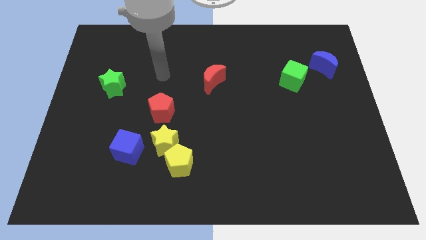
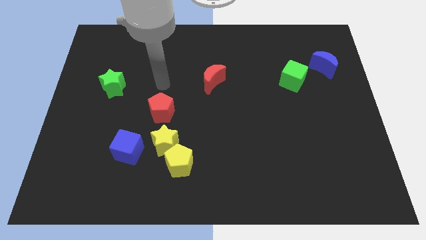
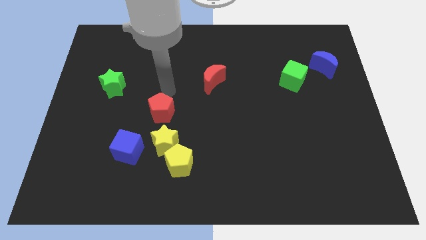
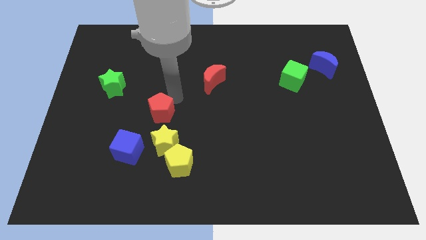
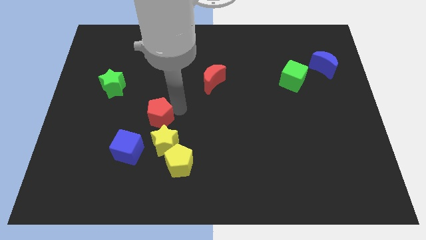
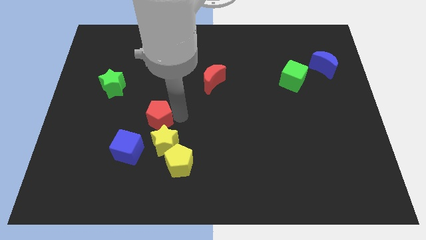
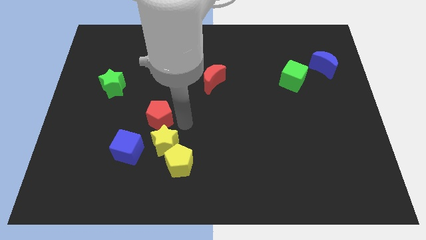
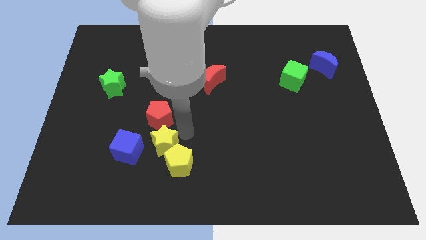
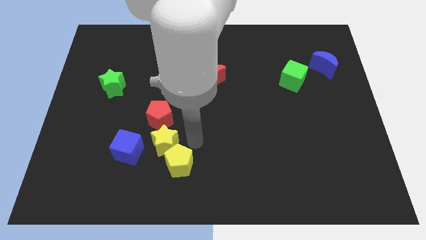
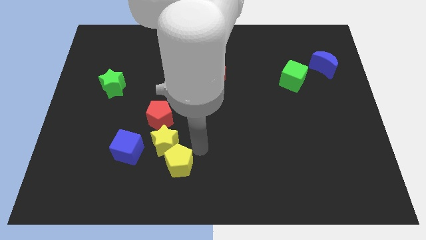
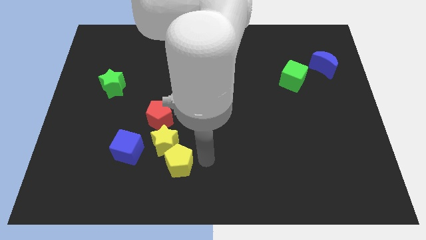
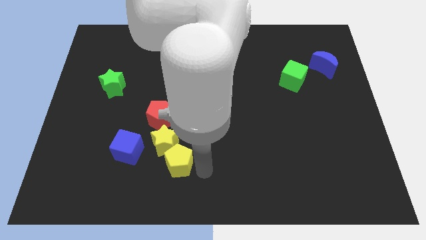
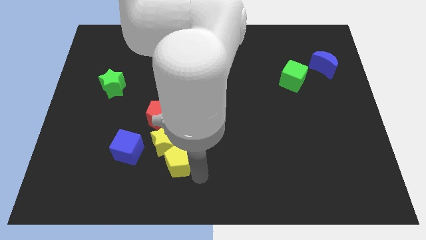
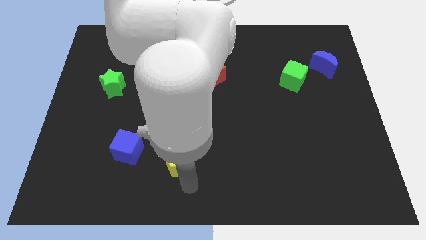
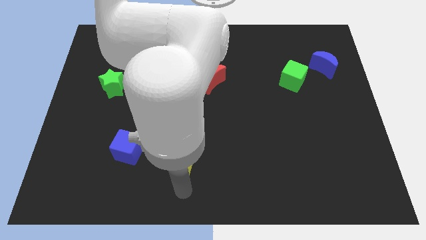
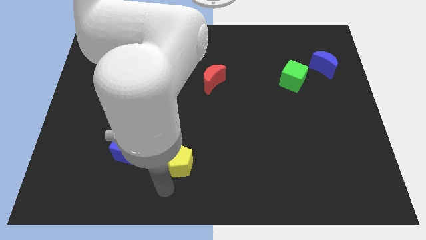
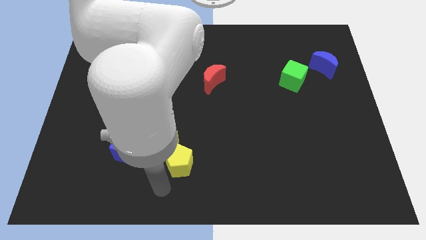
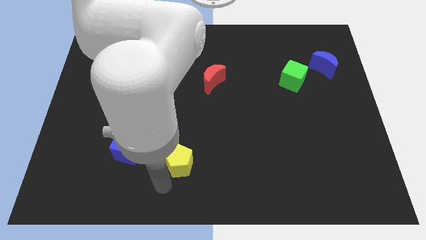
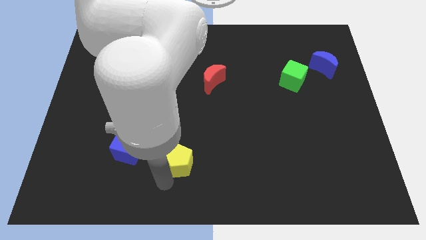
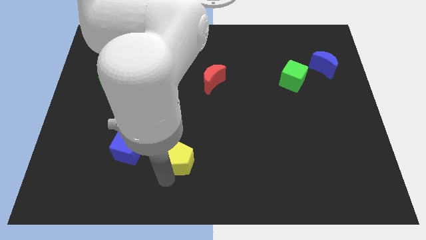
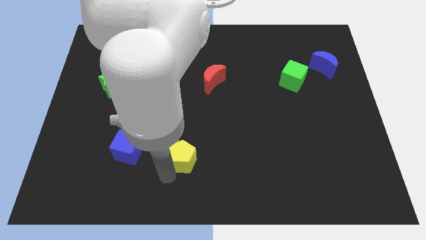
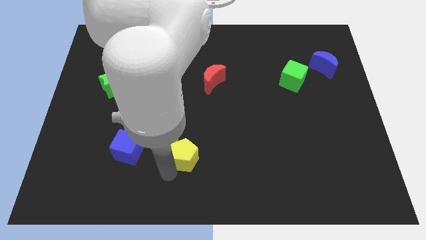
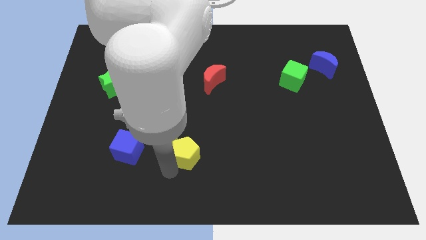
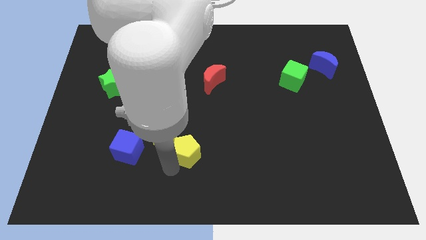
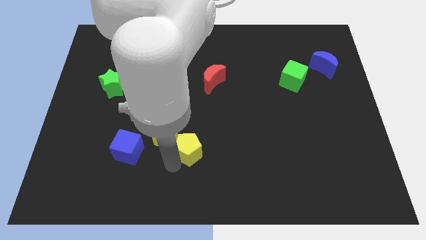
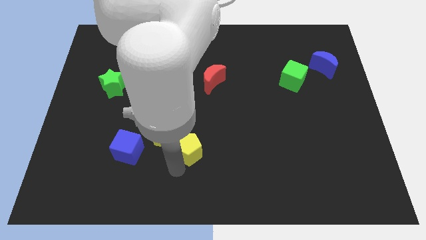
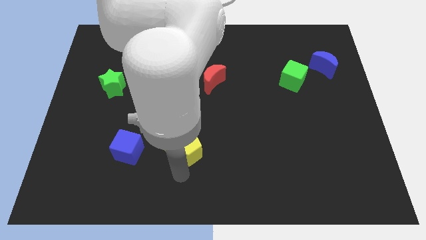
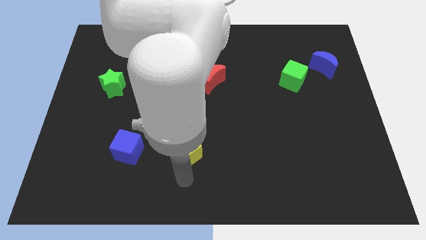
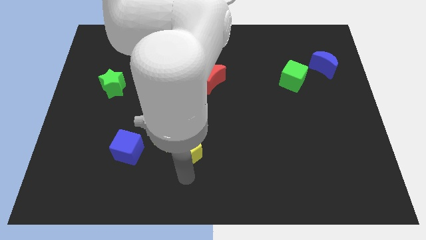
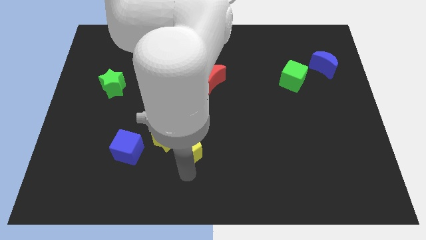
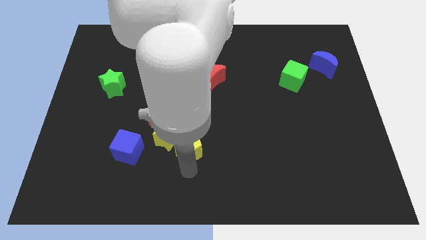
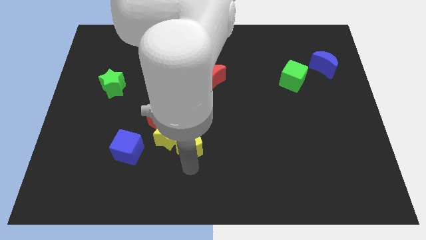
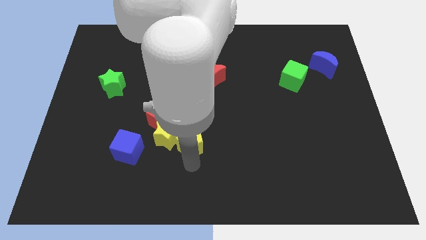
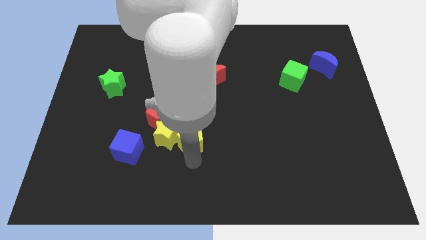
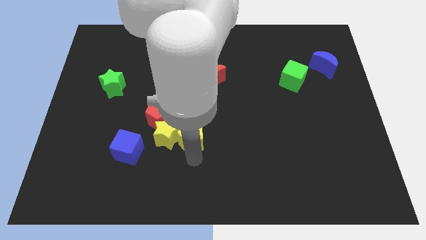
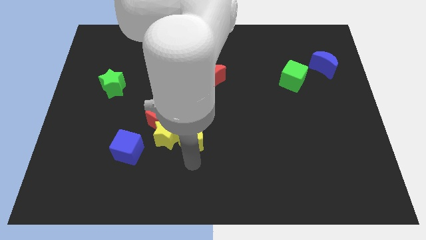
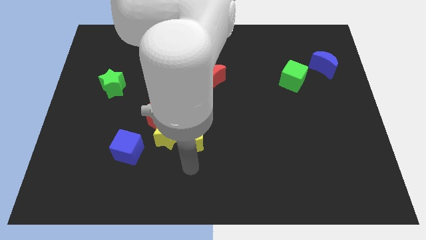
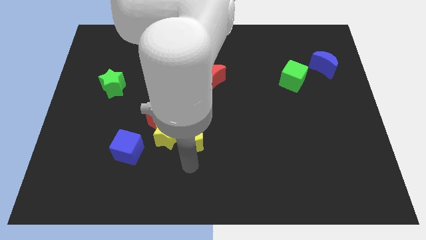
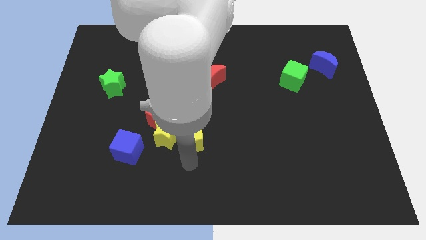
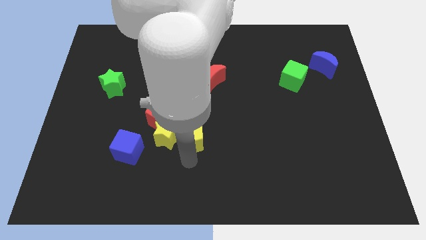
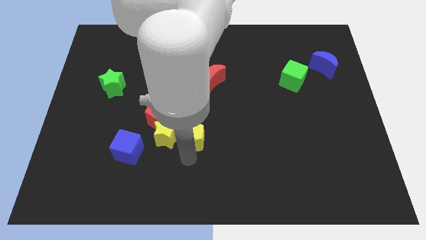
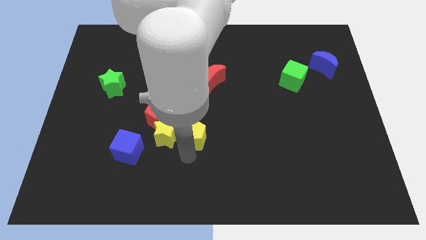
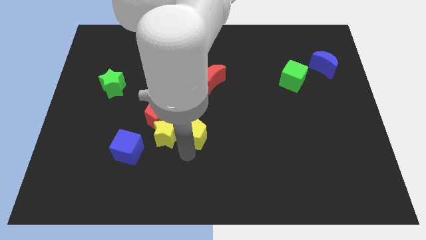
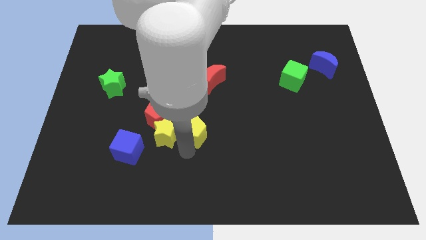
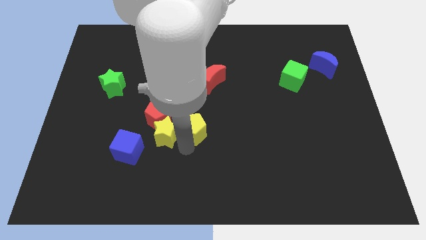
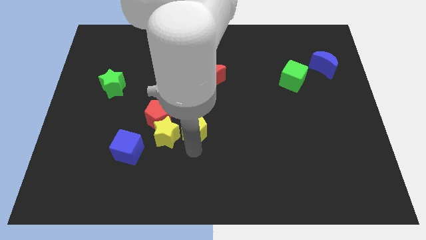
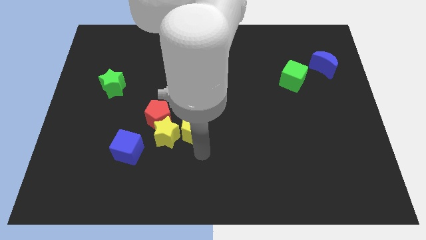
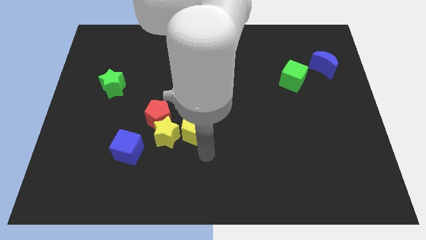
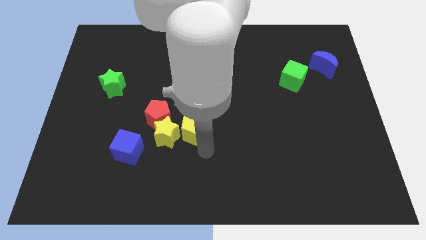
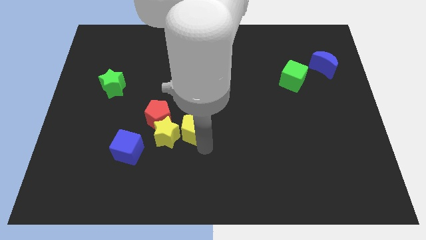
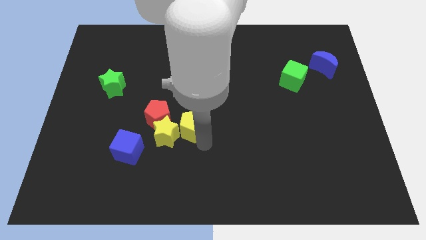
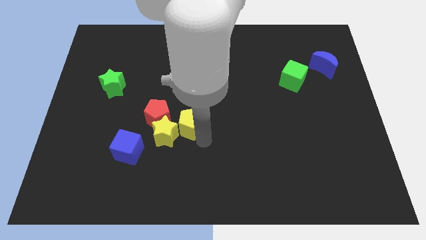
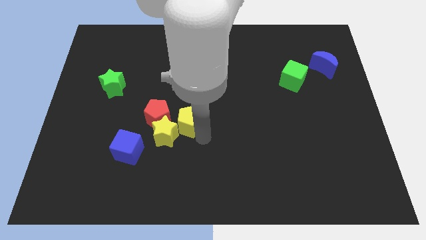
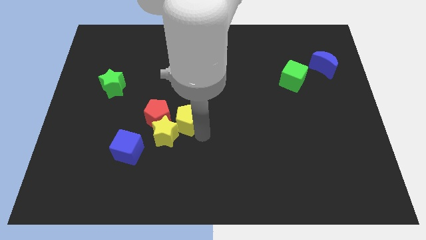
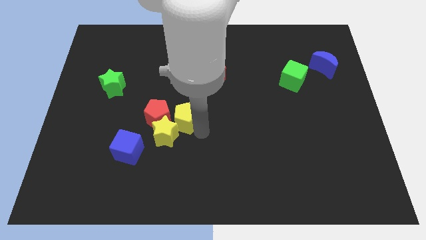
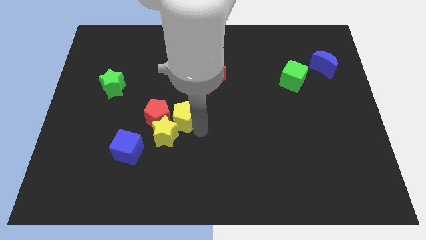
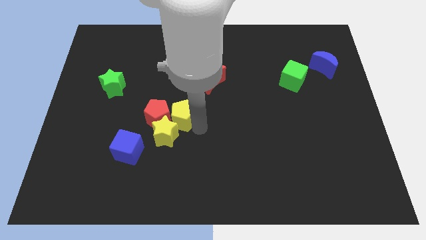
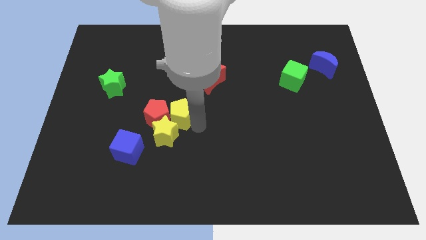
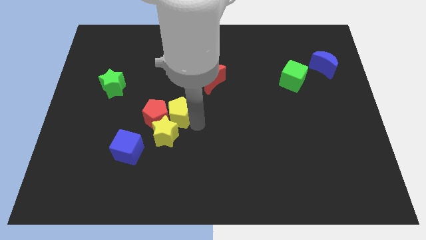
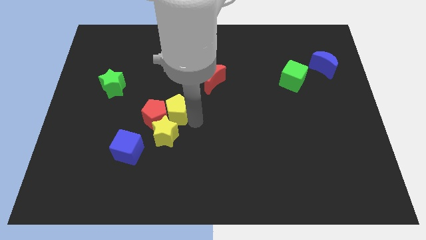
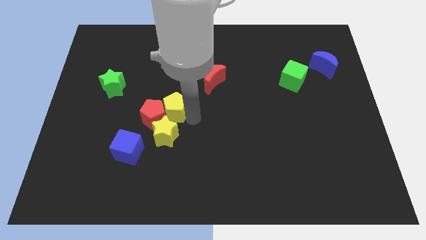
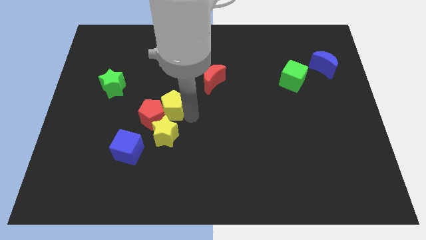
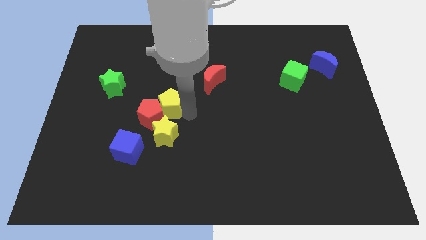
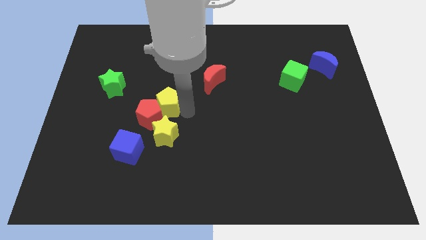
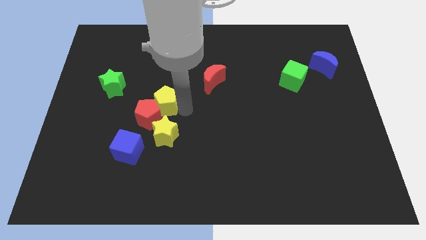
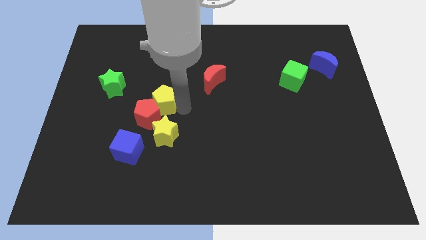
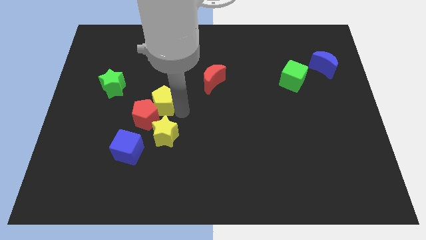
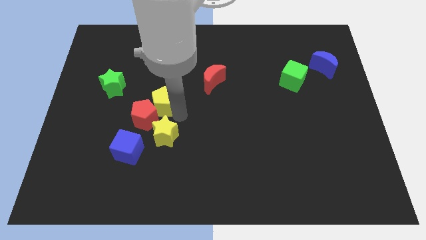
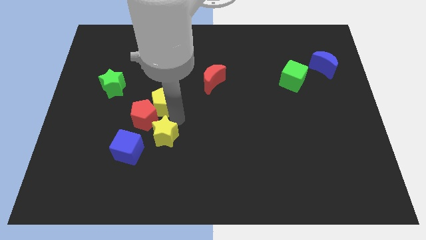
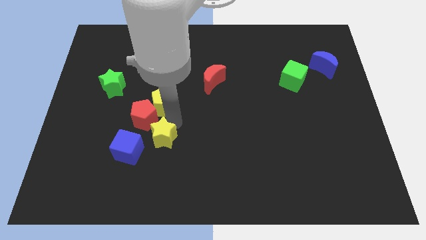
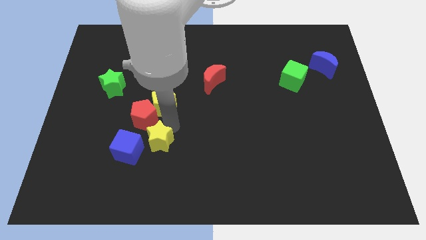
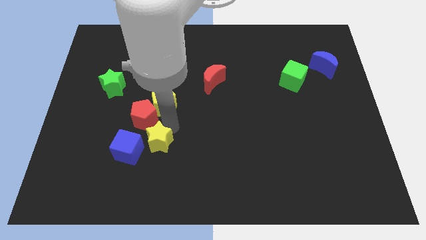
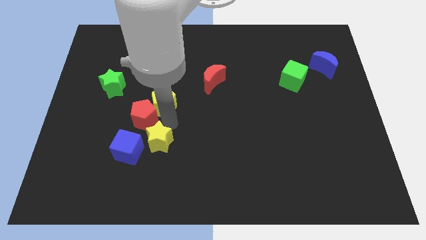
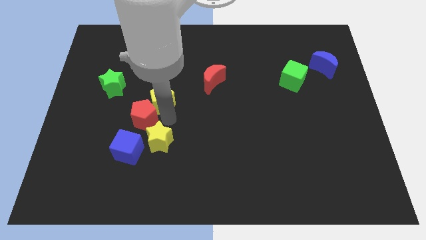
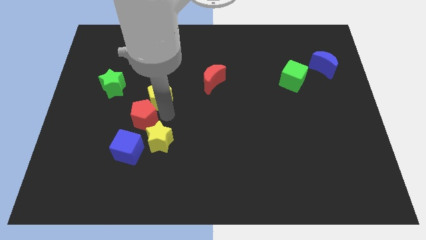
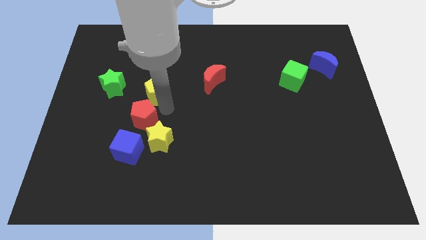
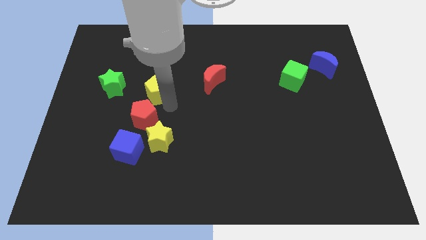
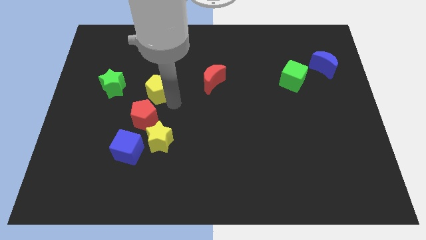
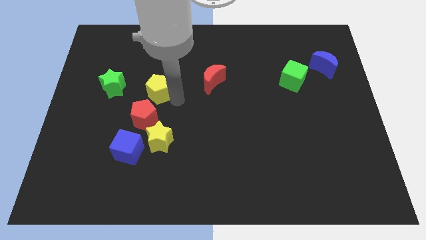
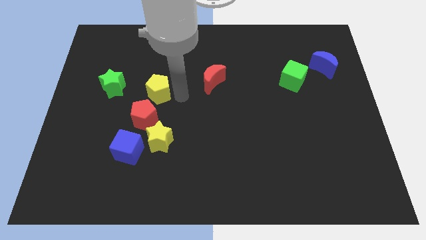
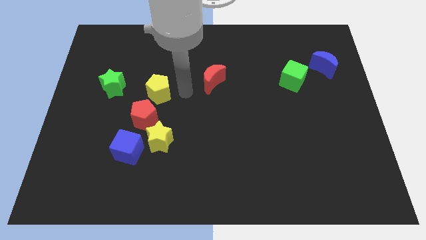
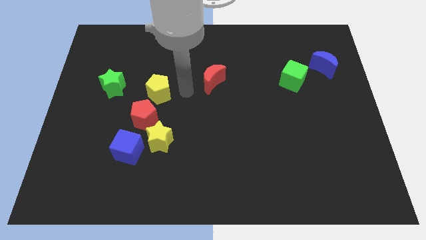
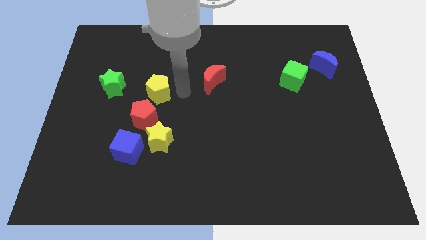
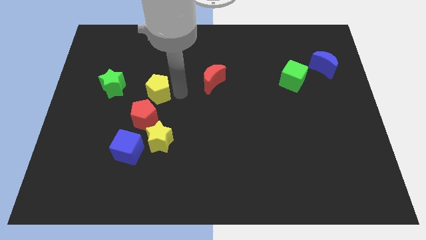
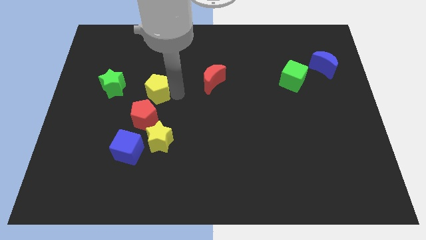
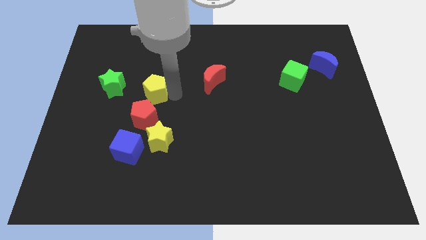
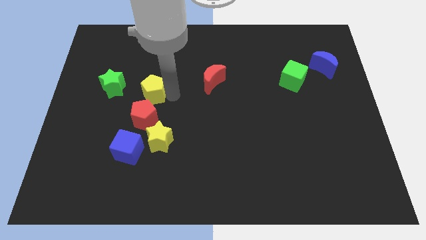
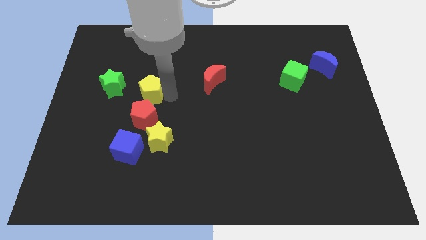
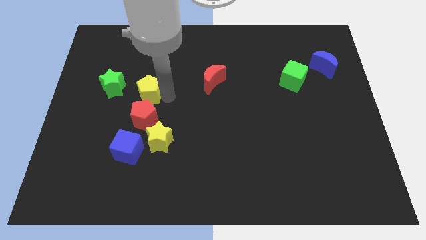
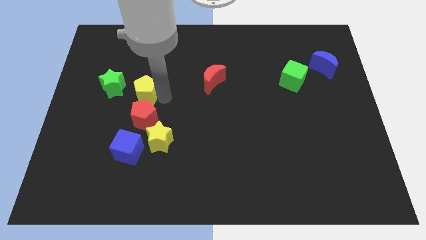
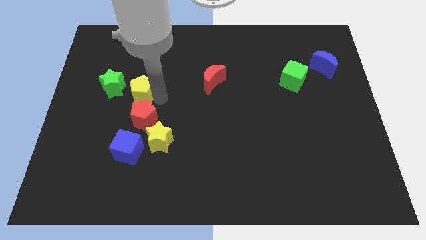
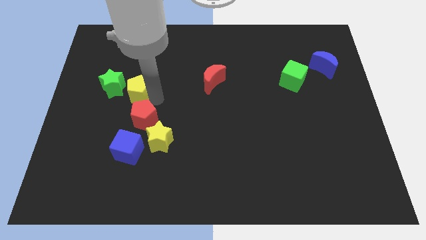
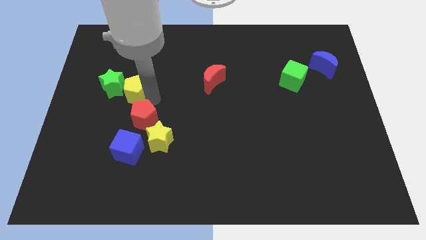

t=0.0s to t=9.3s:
move the yellow pentagon to the green star
